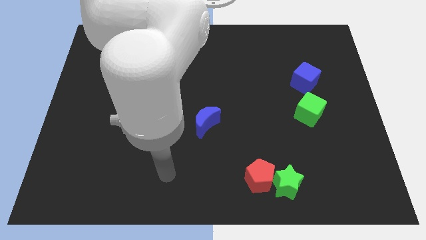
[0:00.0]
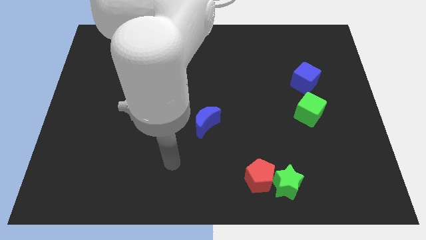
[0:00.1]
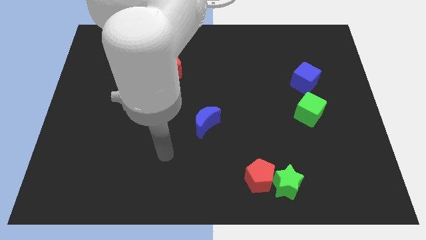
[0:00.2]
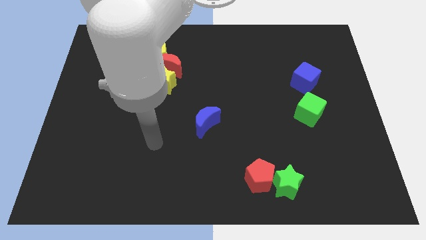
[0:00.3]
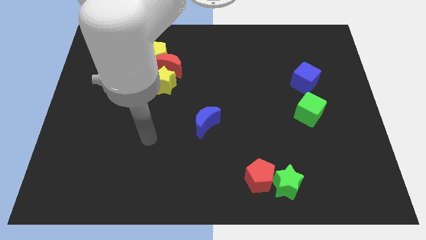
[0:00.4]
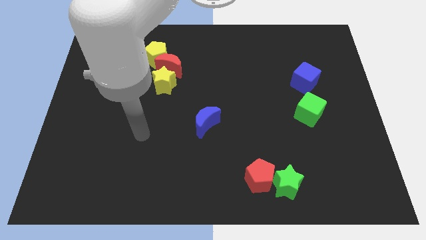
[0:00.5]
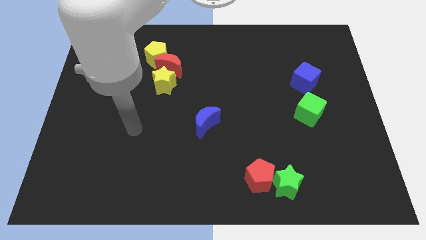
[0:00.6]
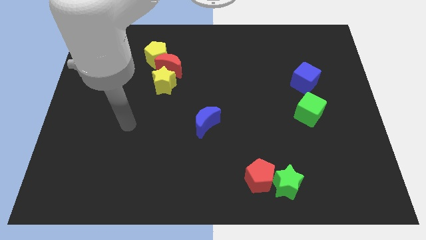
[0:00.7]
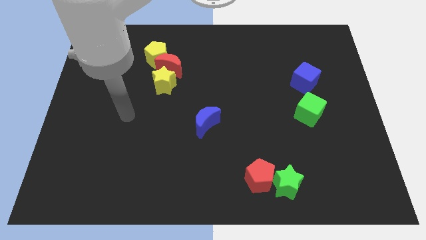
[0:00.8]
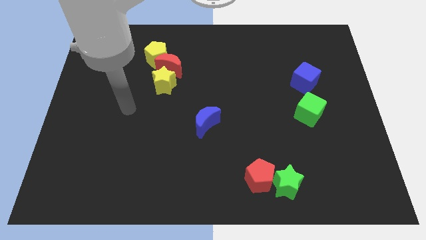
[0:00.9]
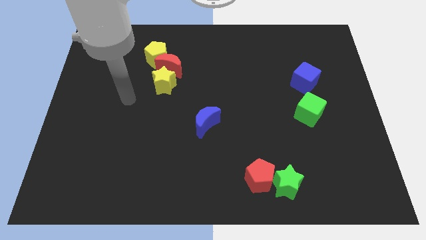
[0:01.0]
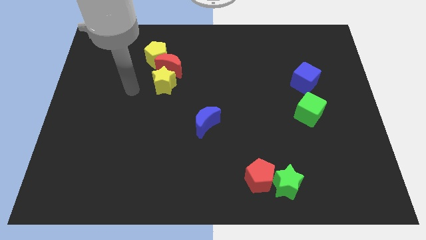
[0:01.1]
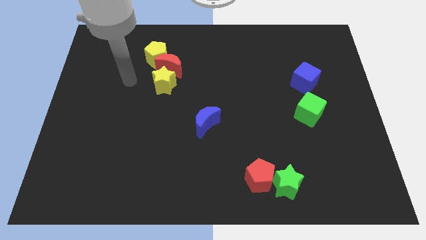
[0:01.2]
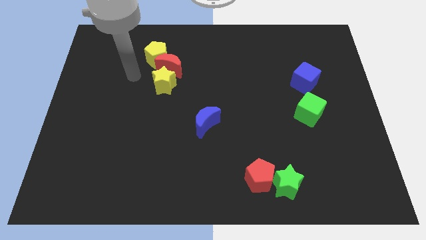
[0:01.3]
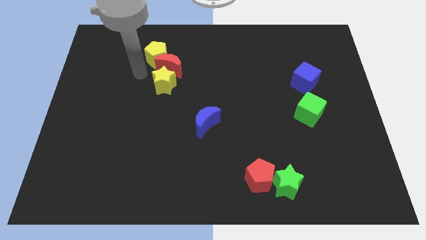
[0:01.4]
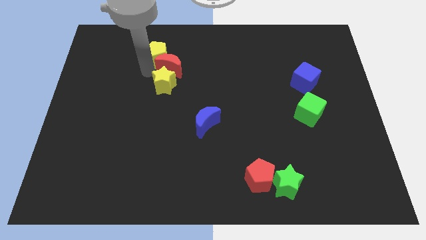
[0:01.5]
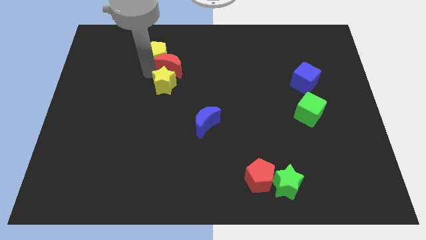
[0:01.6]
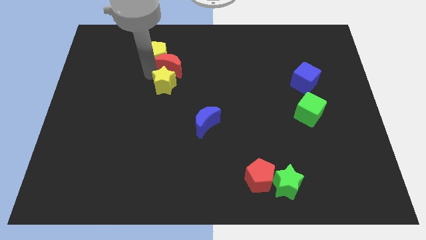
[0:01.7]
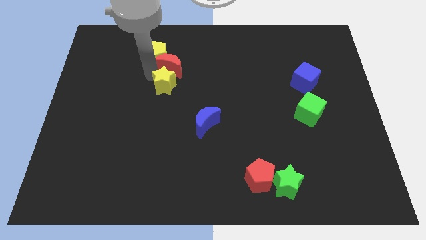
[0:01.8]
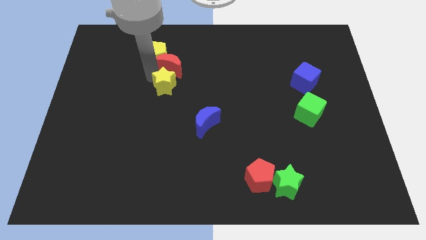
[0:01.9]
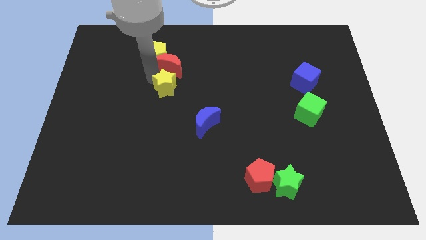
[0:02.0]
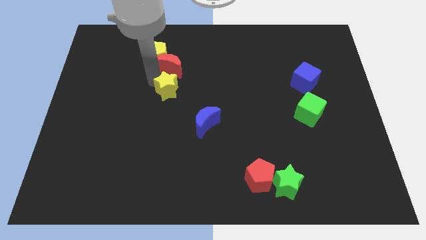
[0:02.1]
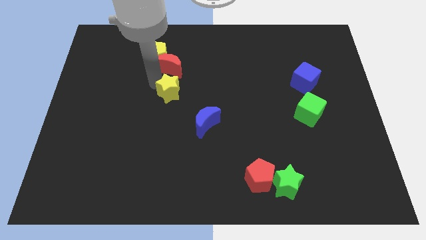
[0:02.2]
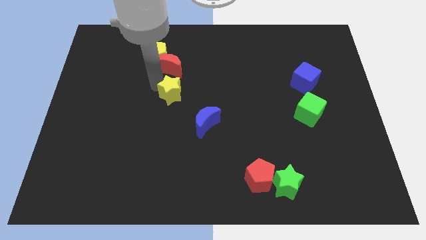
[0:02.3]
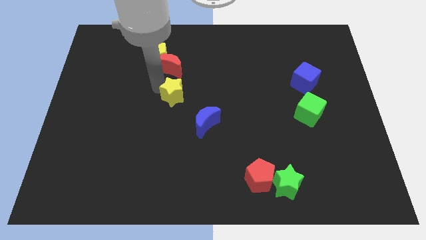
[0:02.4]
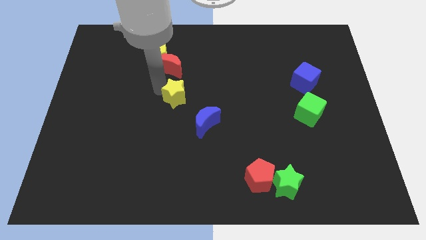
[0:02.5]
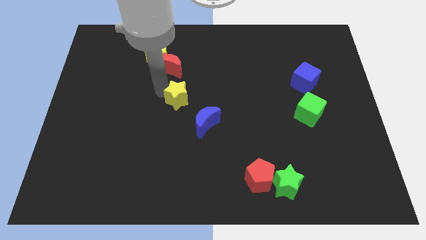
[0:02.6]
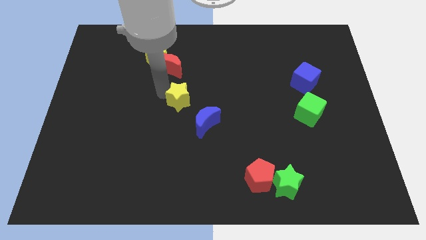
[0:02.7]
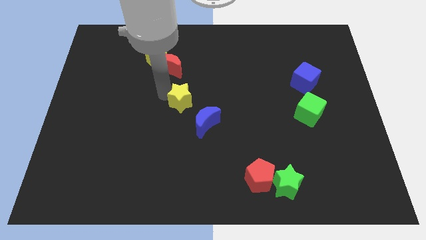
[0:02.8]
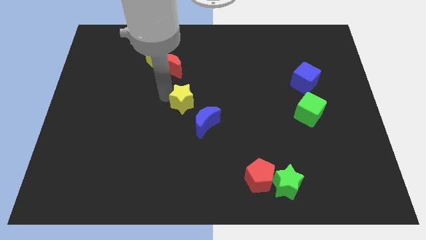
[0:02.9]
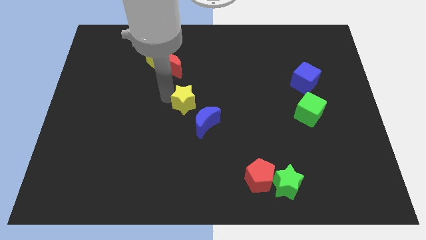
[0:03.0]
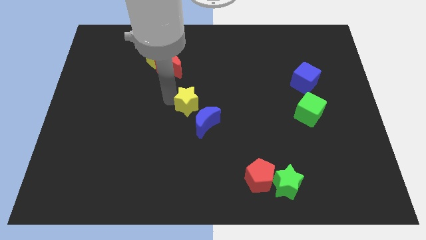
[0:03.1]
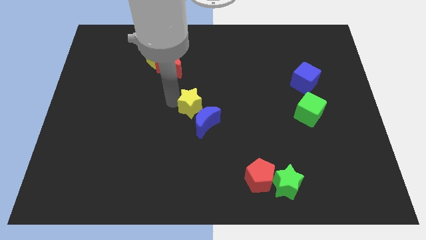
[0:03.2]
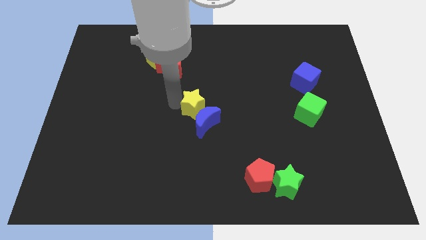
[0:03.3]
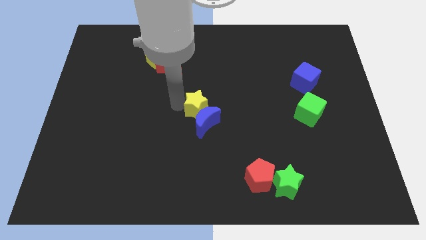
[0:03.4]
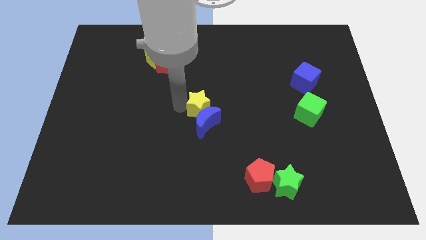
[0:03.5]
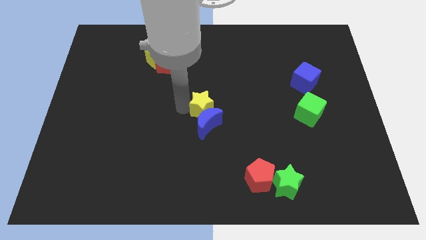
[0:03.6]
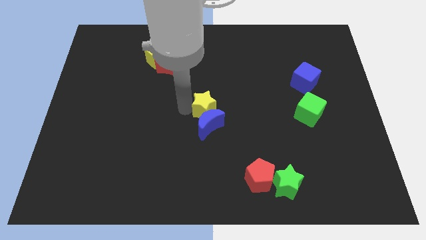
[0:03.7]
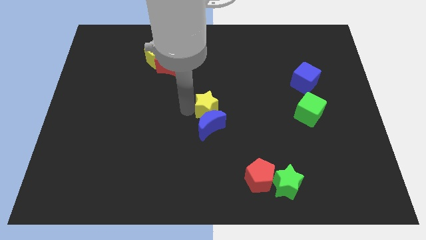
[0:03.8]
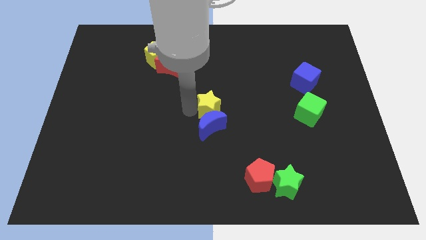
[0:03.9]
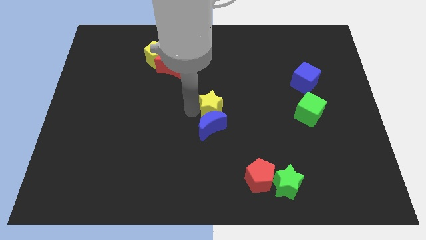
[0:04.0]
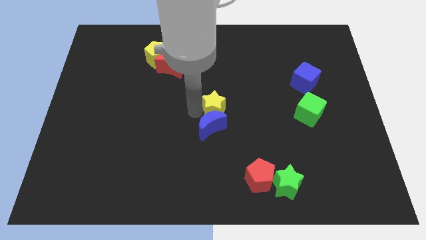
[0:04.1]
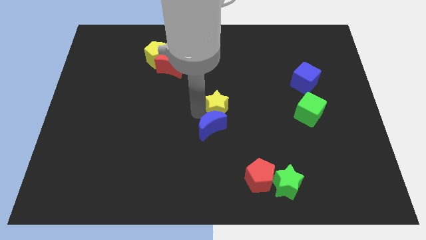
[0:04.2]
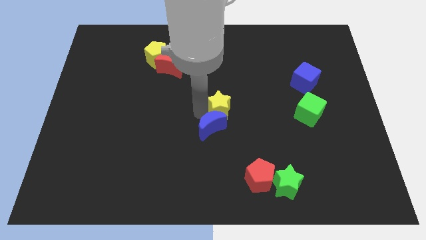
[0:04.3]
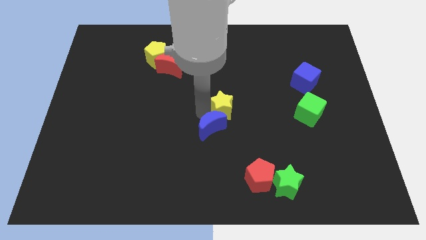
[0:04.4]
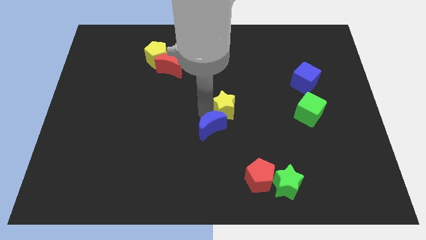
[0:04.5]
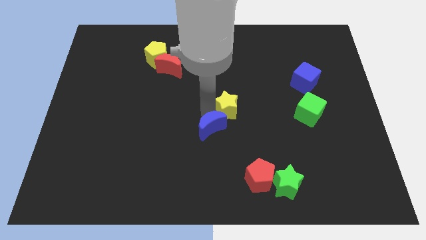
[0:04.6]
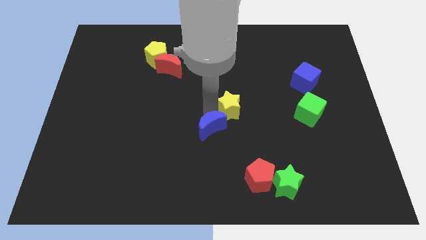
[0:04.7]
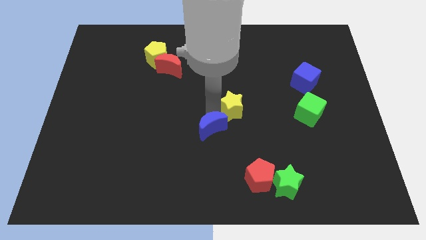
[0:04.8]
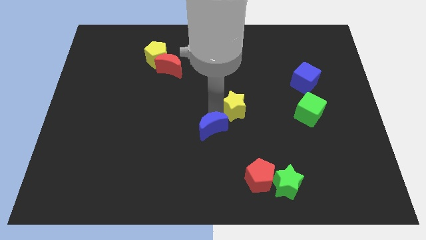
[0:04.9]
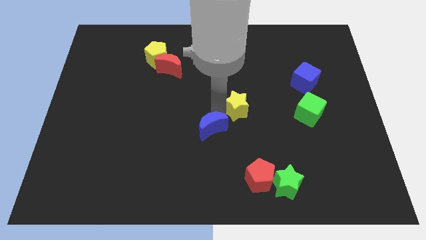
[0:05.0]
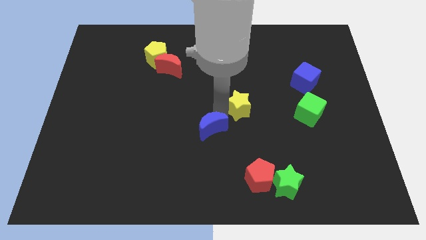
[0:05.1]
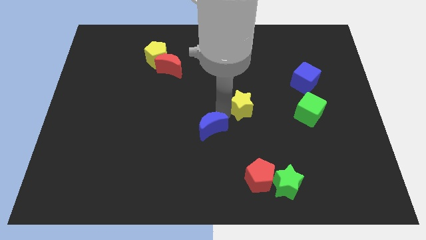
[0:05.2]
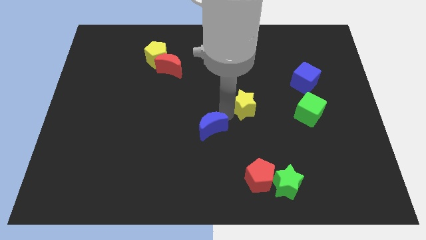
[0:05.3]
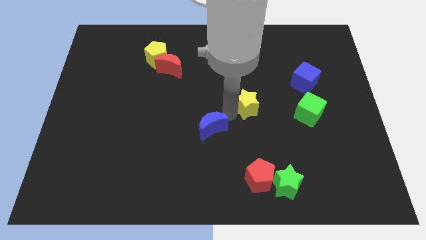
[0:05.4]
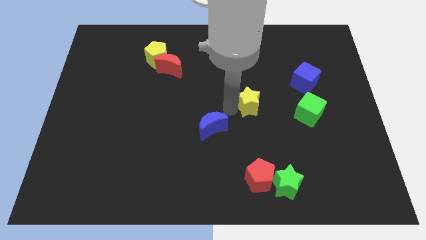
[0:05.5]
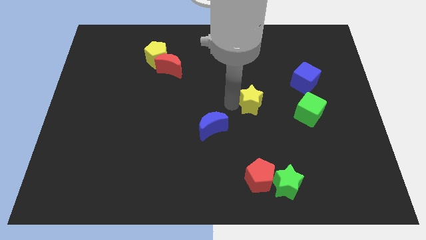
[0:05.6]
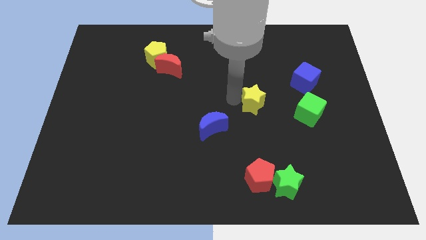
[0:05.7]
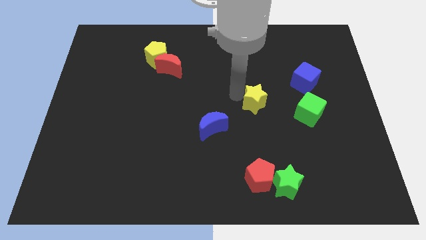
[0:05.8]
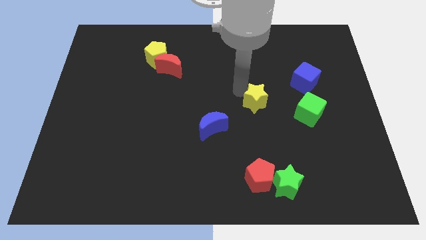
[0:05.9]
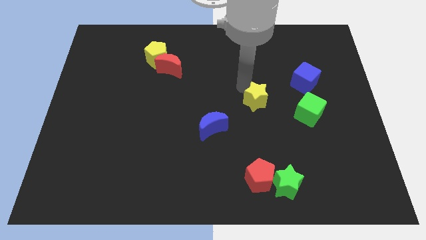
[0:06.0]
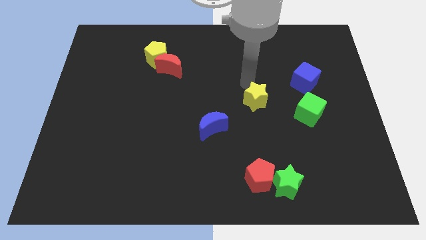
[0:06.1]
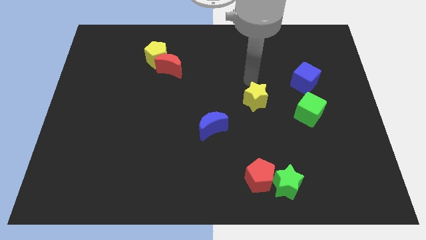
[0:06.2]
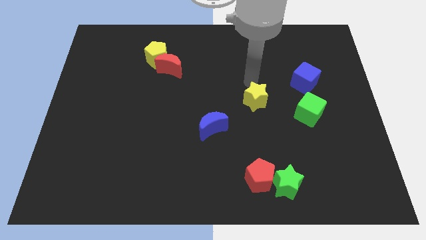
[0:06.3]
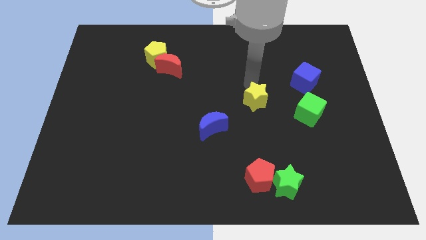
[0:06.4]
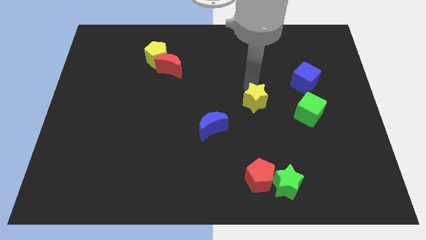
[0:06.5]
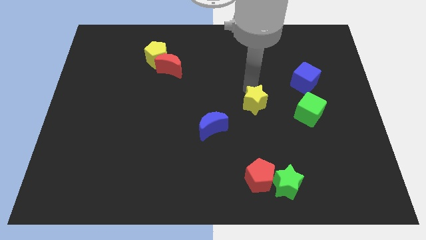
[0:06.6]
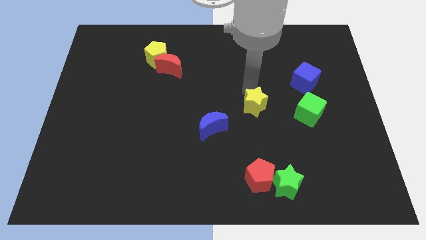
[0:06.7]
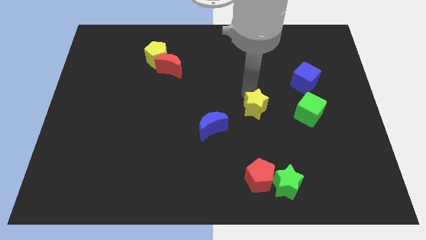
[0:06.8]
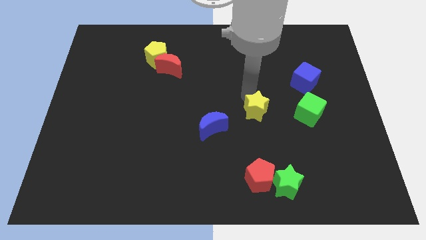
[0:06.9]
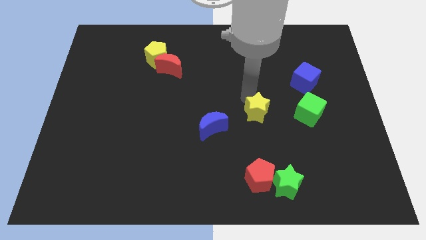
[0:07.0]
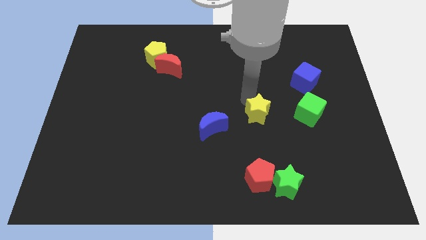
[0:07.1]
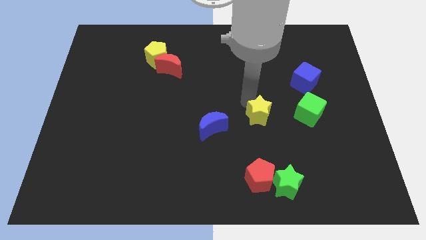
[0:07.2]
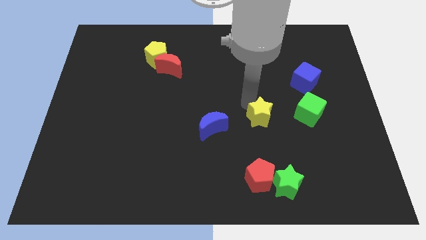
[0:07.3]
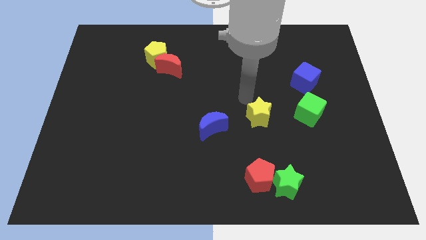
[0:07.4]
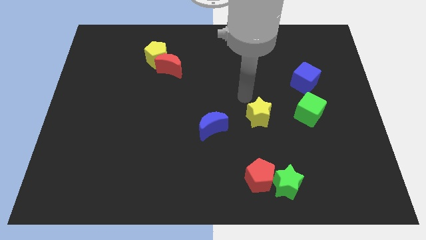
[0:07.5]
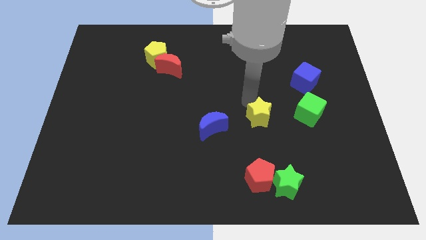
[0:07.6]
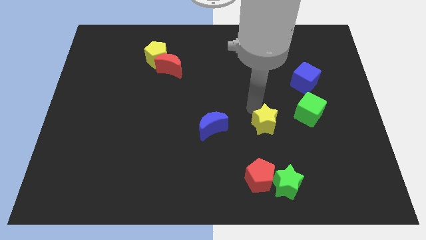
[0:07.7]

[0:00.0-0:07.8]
slide the yellow star to the top of the green star
